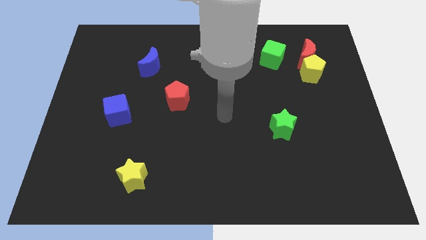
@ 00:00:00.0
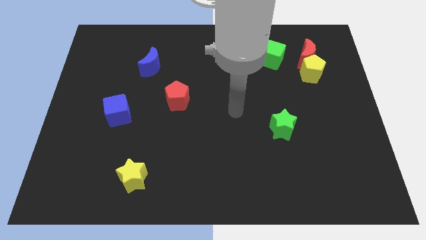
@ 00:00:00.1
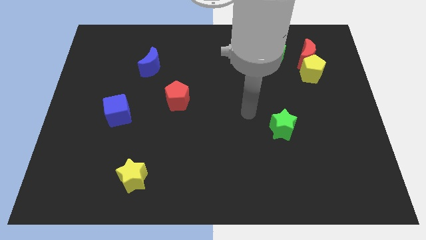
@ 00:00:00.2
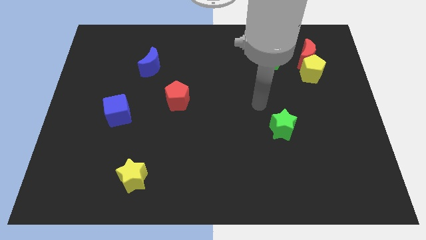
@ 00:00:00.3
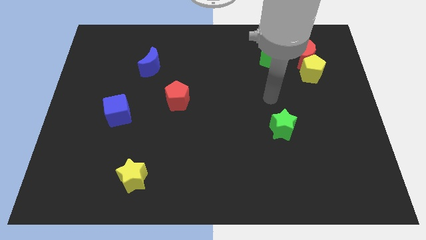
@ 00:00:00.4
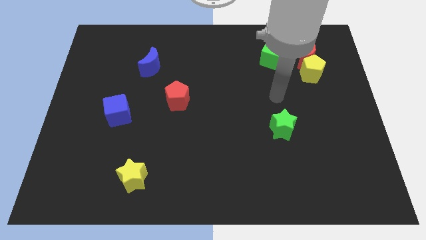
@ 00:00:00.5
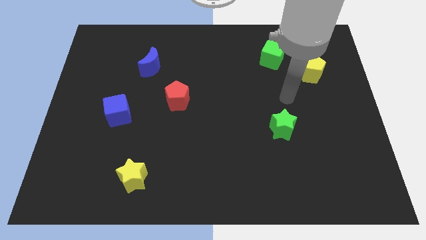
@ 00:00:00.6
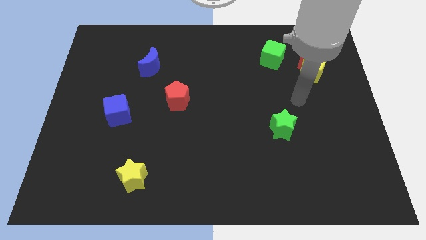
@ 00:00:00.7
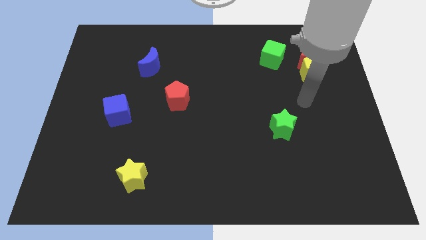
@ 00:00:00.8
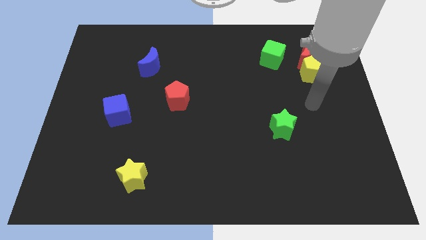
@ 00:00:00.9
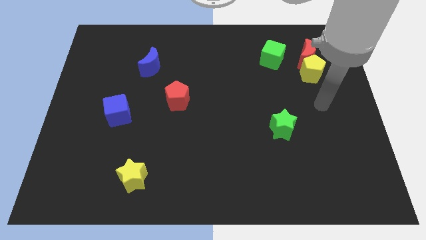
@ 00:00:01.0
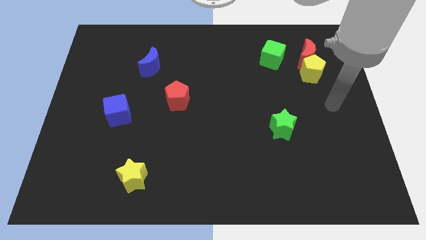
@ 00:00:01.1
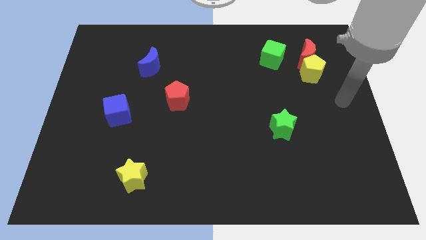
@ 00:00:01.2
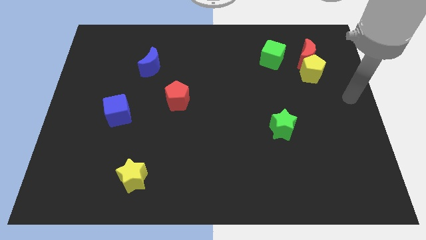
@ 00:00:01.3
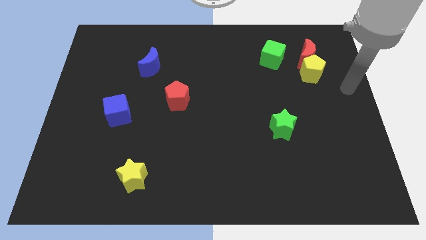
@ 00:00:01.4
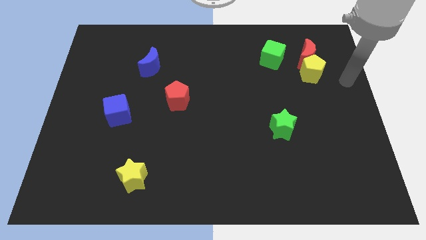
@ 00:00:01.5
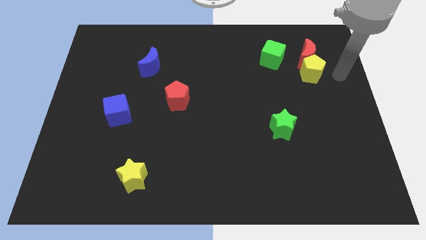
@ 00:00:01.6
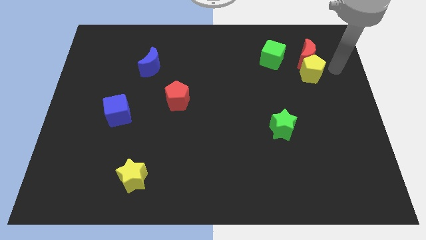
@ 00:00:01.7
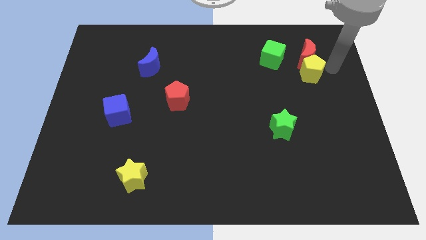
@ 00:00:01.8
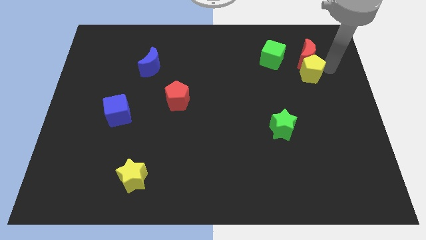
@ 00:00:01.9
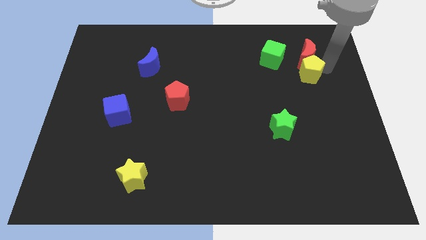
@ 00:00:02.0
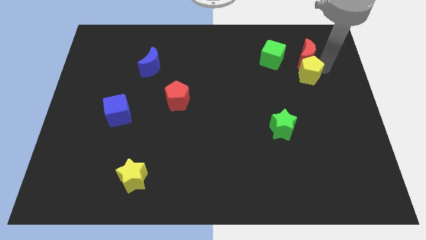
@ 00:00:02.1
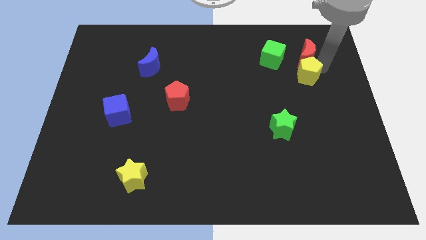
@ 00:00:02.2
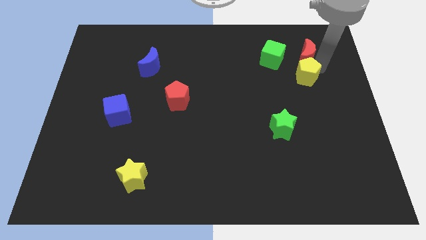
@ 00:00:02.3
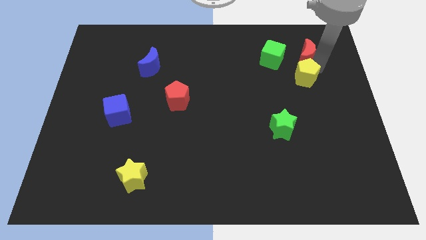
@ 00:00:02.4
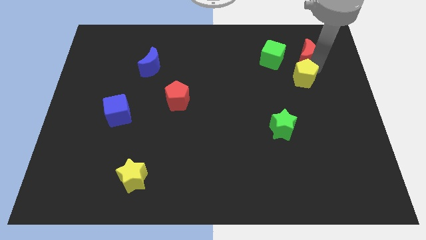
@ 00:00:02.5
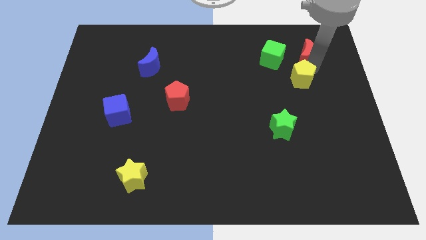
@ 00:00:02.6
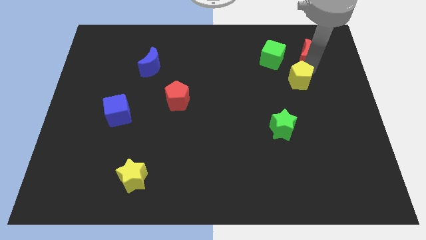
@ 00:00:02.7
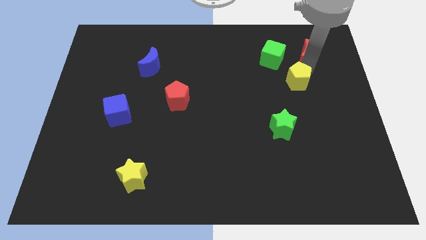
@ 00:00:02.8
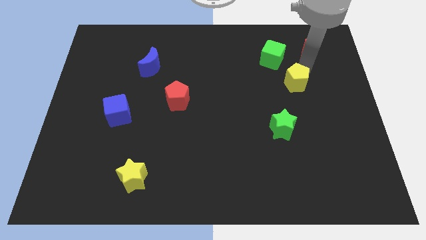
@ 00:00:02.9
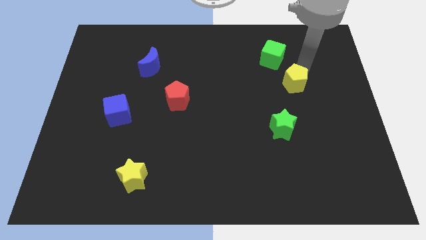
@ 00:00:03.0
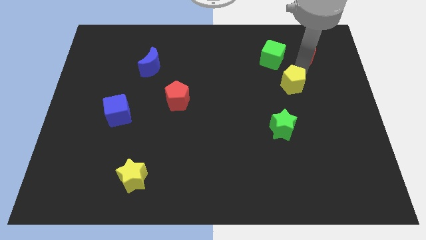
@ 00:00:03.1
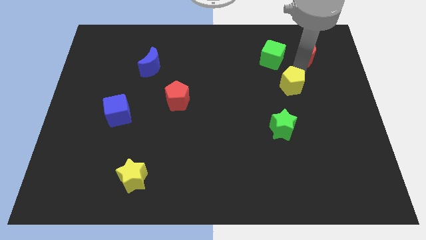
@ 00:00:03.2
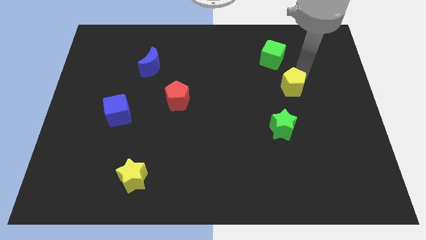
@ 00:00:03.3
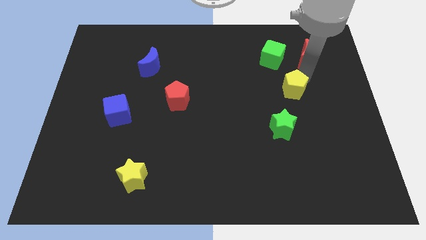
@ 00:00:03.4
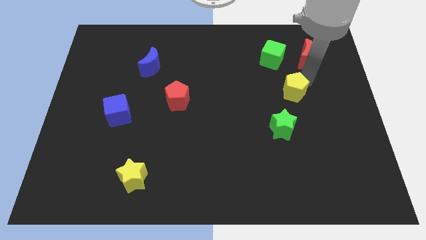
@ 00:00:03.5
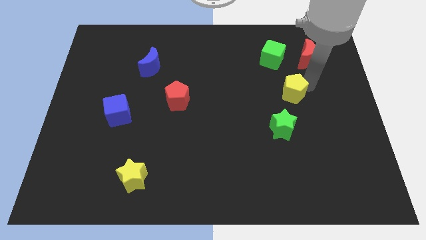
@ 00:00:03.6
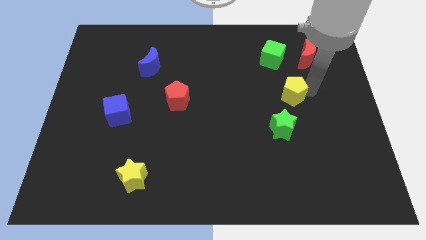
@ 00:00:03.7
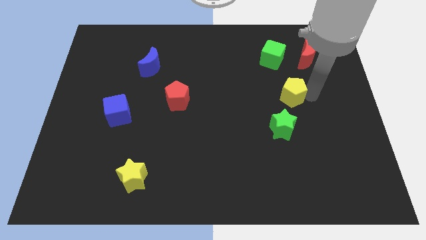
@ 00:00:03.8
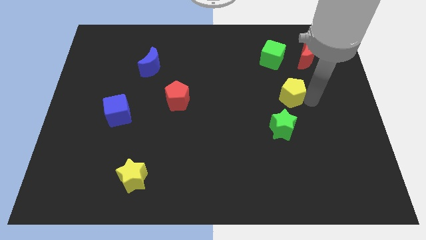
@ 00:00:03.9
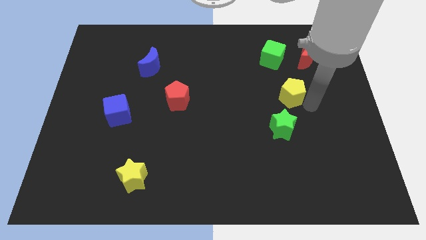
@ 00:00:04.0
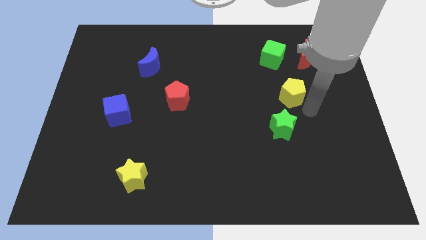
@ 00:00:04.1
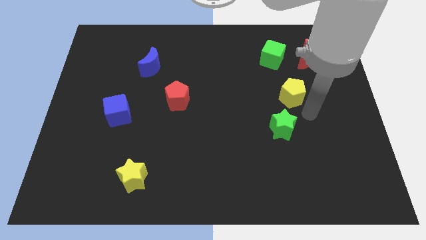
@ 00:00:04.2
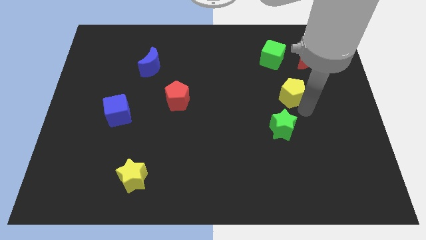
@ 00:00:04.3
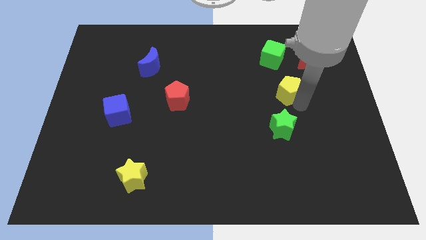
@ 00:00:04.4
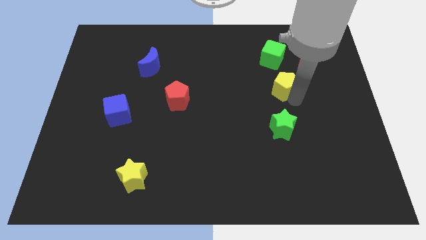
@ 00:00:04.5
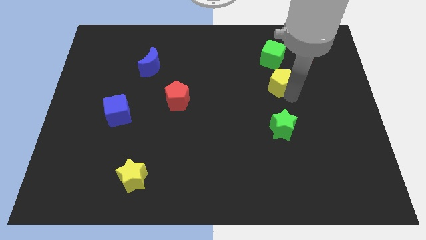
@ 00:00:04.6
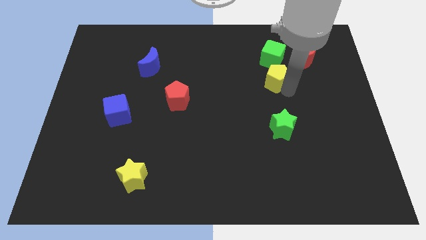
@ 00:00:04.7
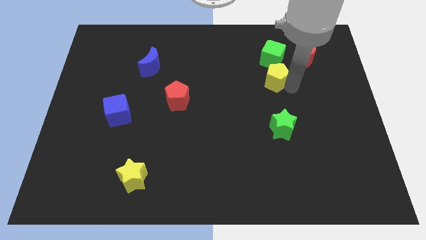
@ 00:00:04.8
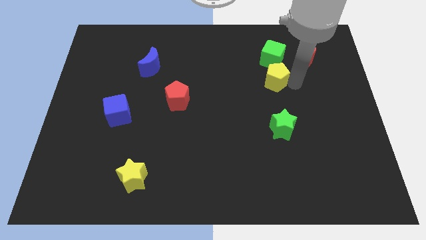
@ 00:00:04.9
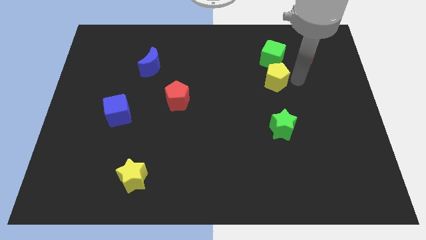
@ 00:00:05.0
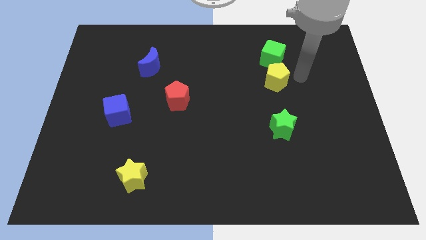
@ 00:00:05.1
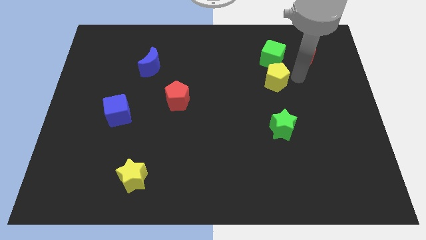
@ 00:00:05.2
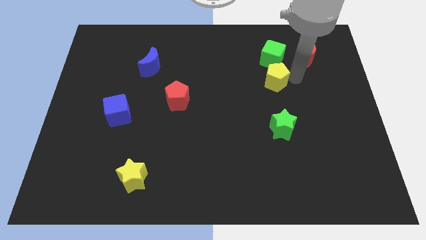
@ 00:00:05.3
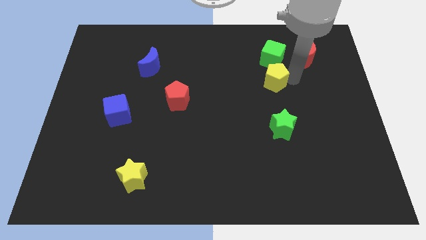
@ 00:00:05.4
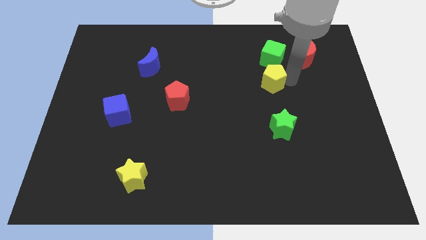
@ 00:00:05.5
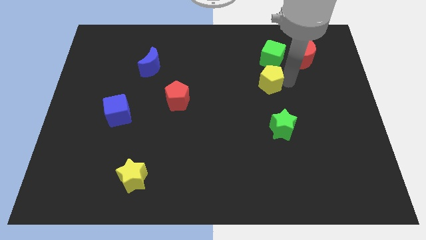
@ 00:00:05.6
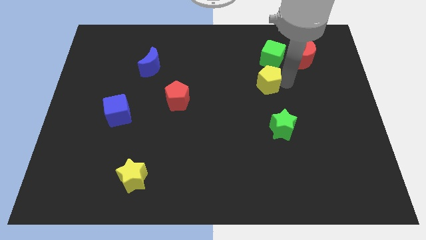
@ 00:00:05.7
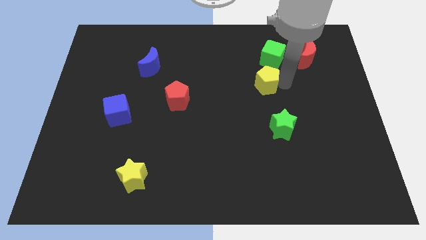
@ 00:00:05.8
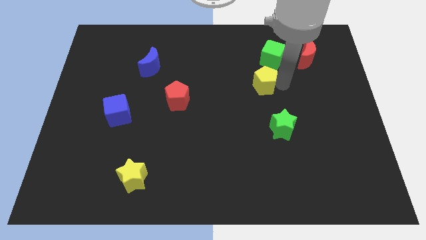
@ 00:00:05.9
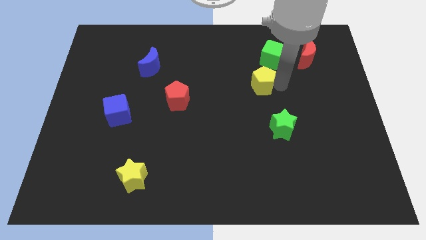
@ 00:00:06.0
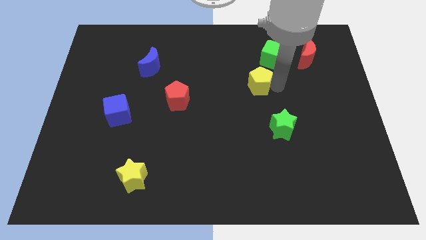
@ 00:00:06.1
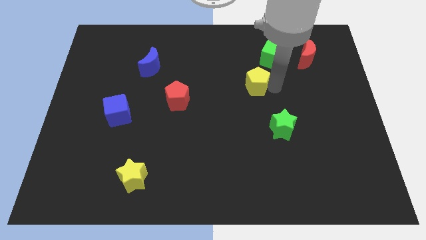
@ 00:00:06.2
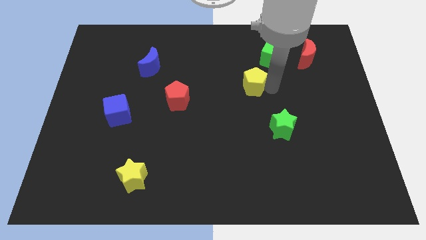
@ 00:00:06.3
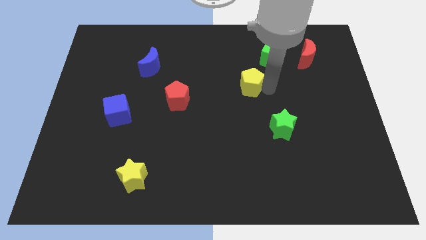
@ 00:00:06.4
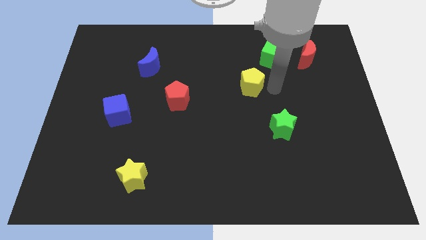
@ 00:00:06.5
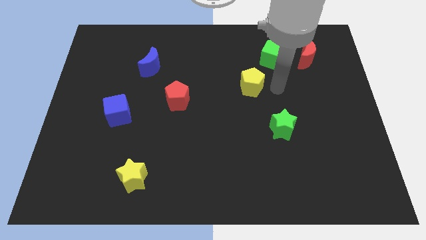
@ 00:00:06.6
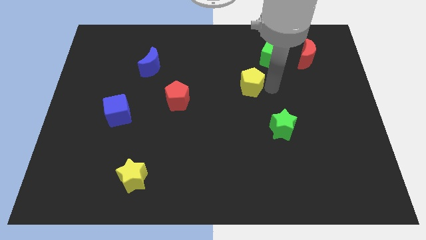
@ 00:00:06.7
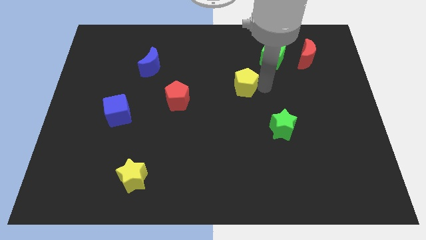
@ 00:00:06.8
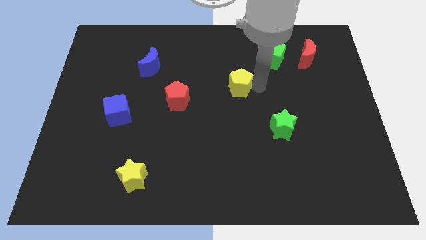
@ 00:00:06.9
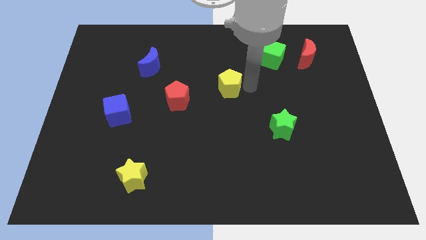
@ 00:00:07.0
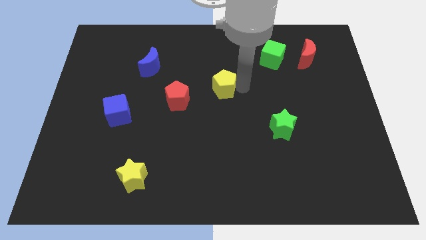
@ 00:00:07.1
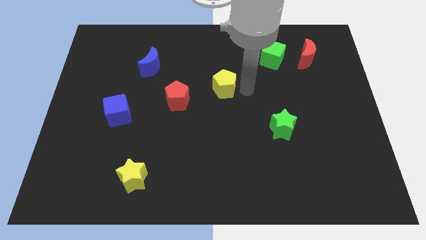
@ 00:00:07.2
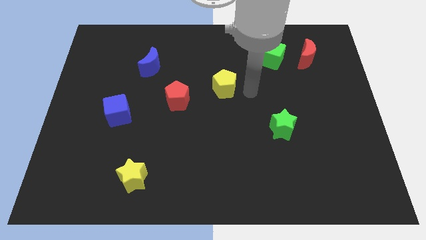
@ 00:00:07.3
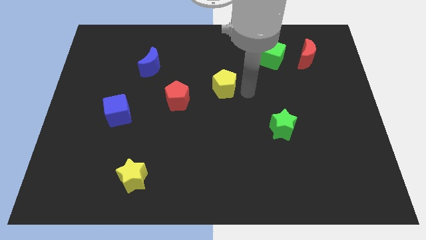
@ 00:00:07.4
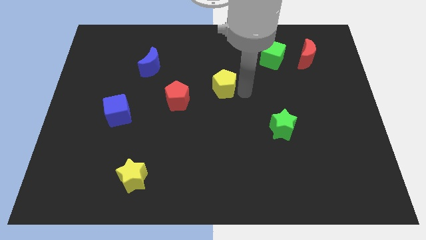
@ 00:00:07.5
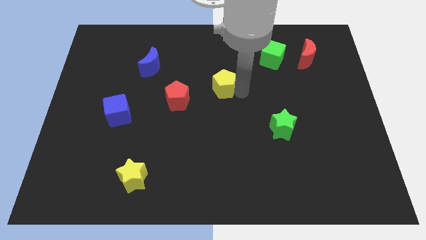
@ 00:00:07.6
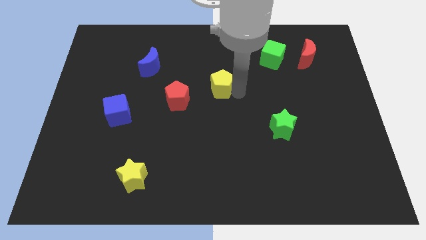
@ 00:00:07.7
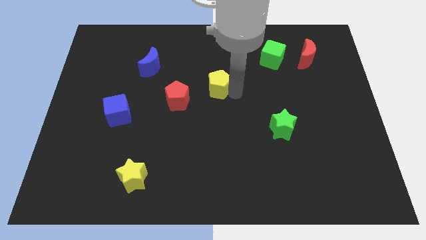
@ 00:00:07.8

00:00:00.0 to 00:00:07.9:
push the yellow pentagon to the top right side of the red pentagon
